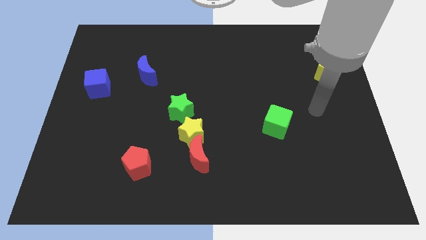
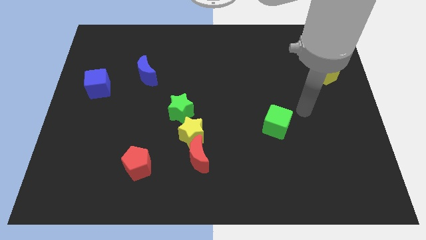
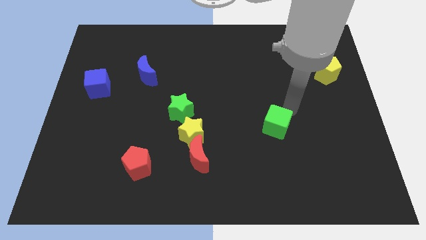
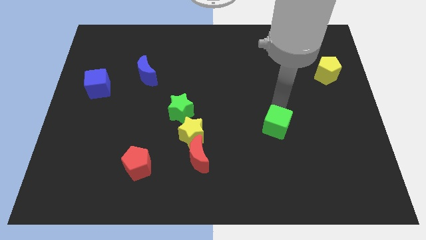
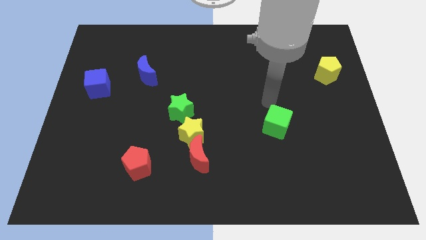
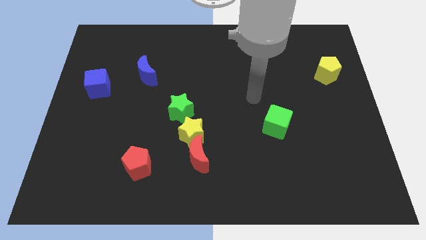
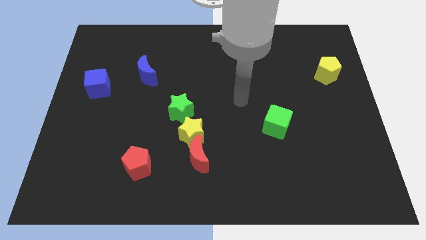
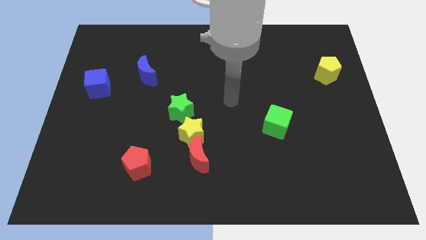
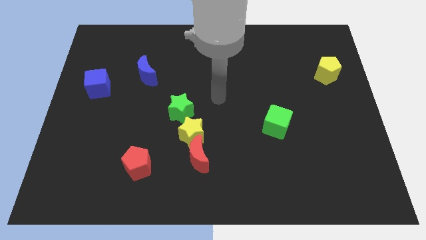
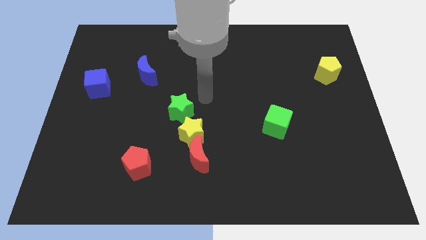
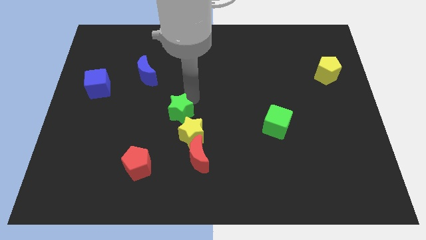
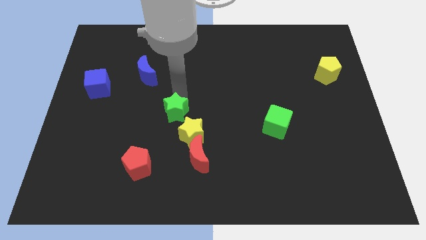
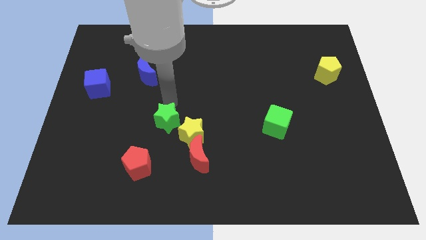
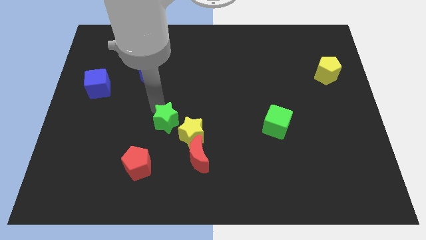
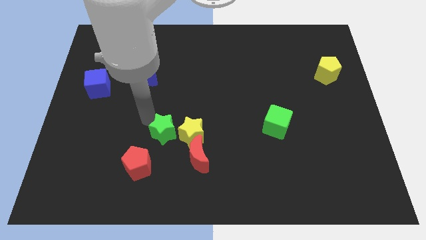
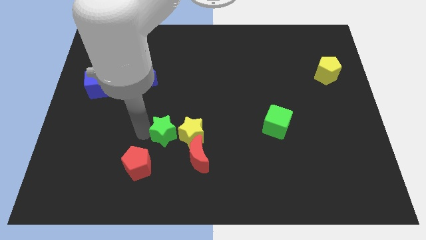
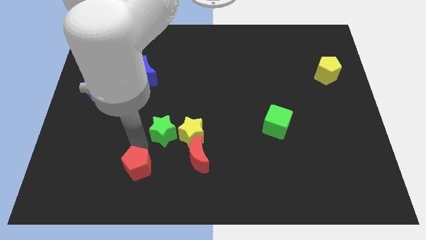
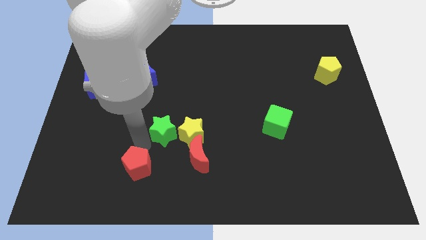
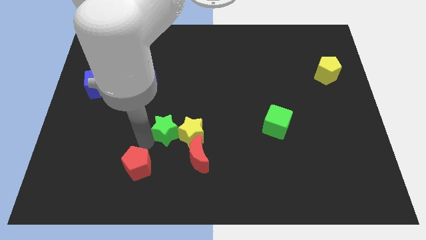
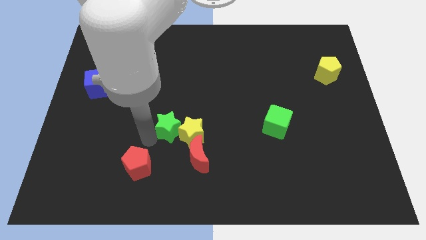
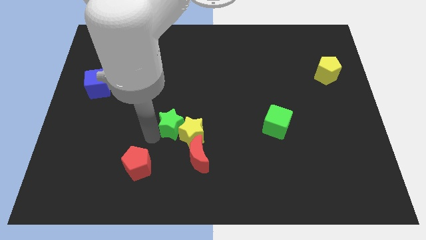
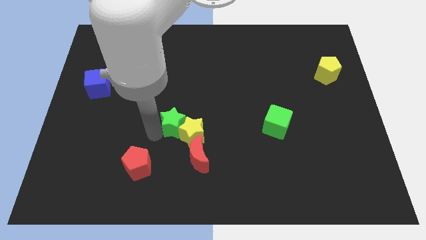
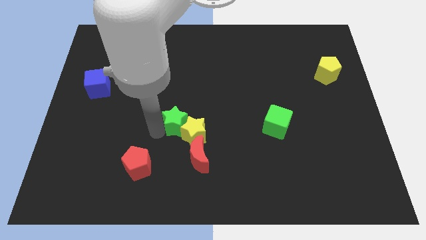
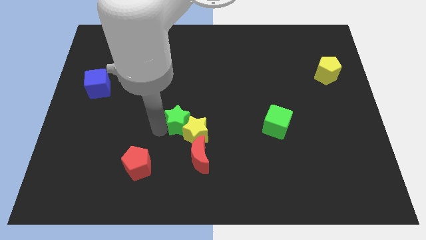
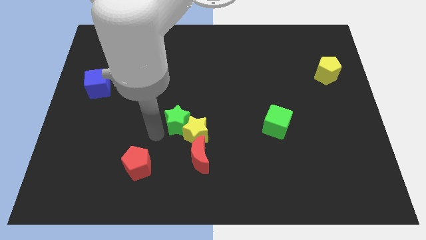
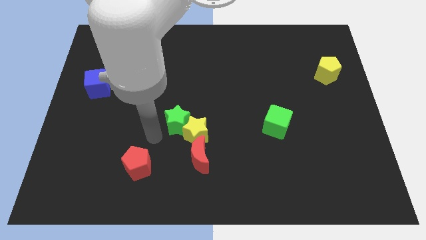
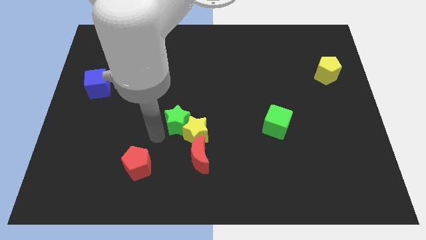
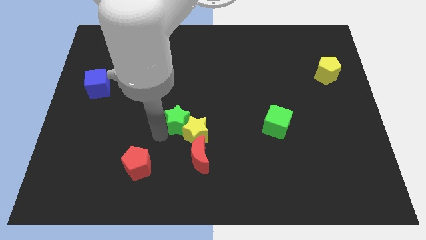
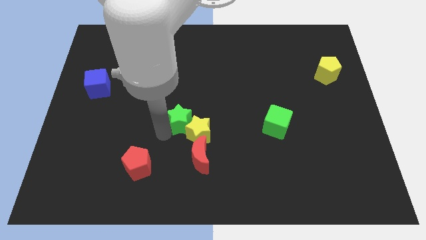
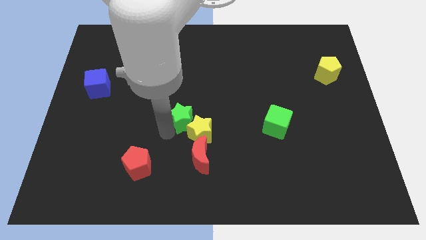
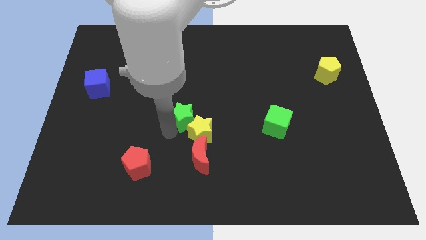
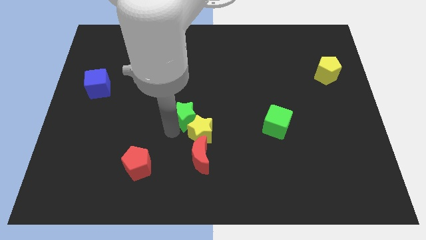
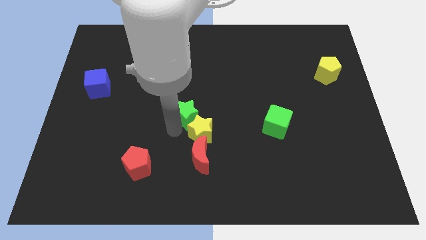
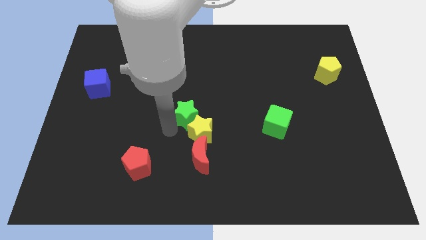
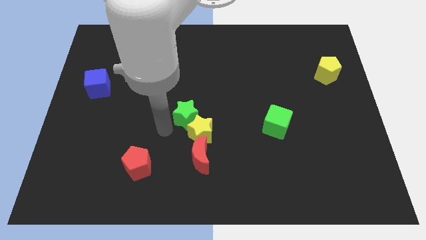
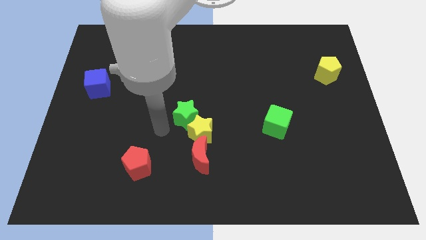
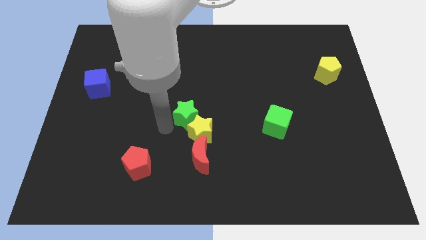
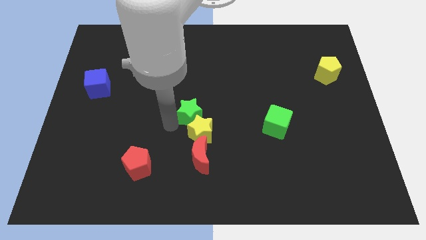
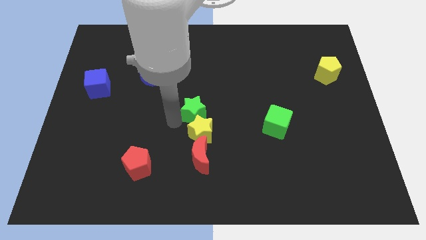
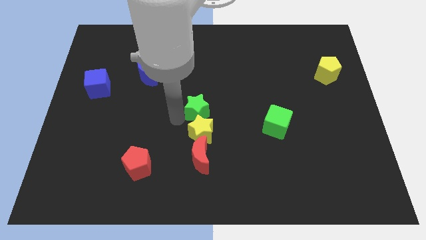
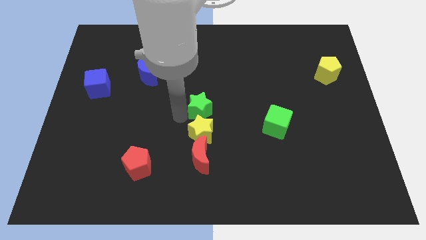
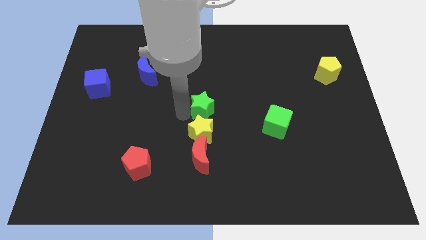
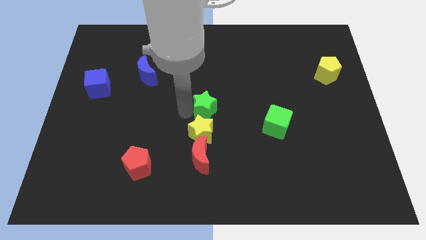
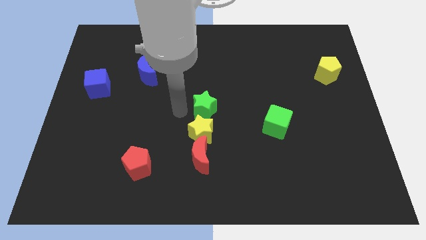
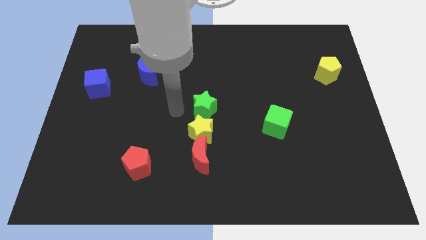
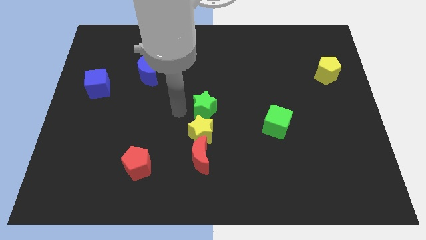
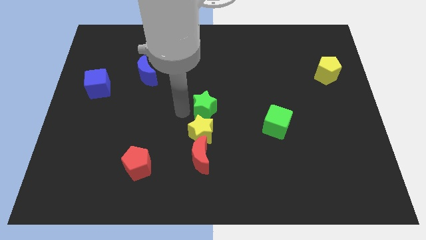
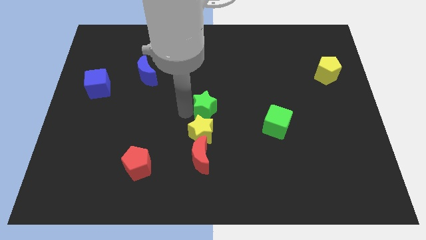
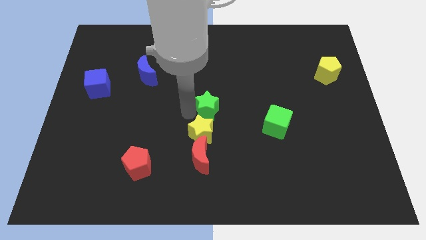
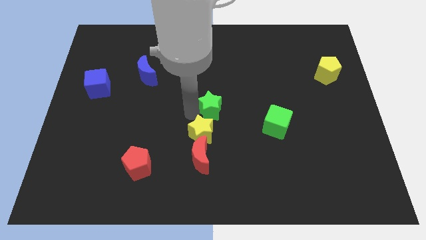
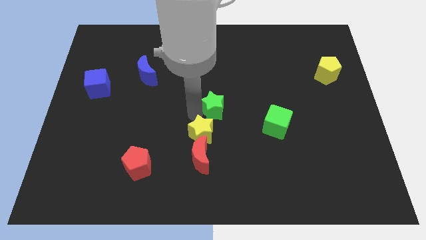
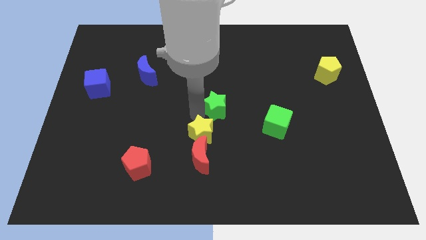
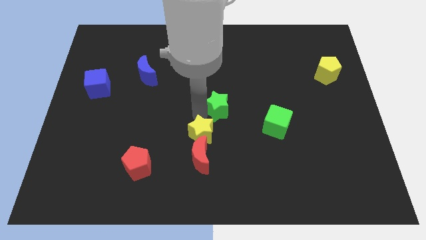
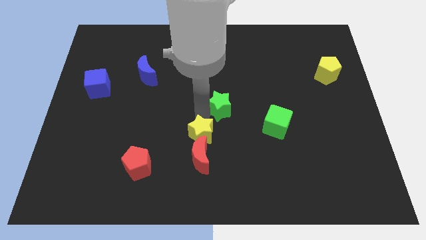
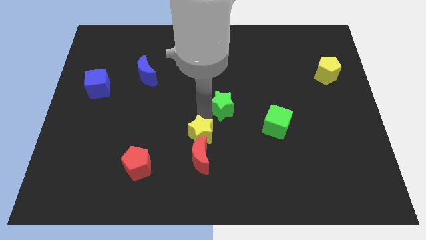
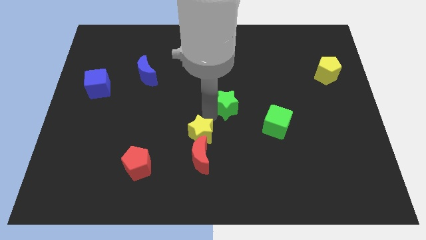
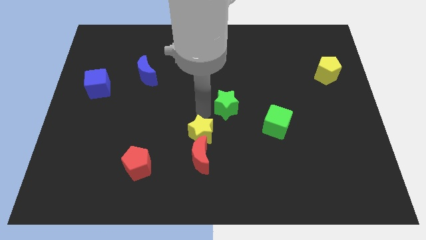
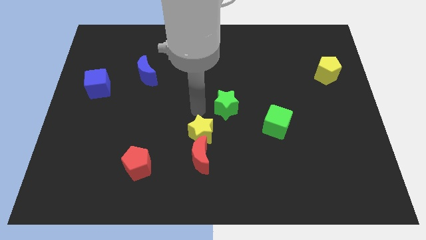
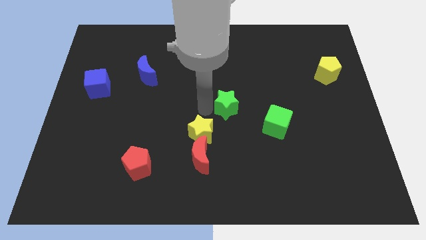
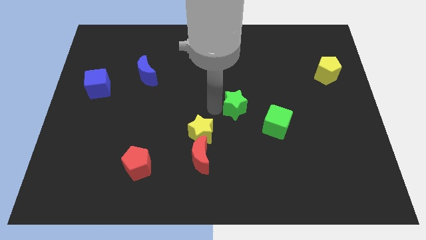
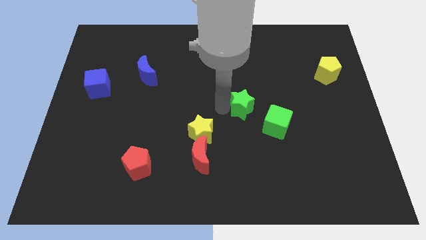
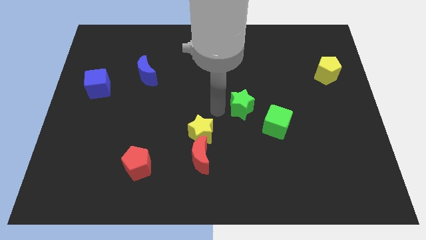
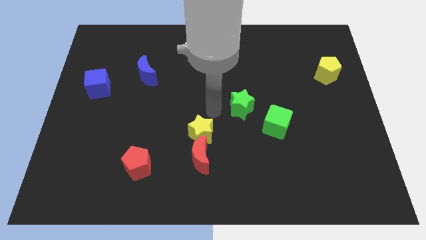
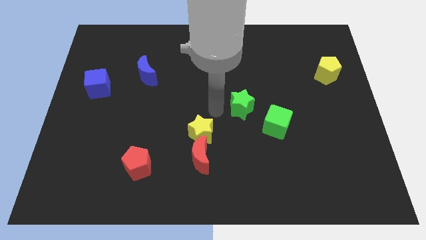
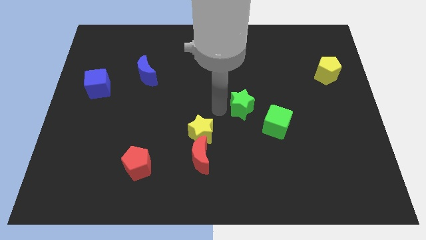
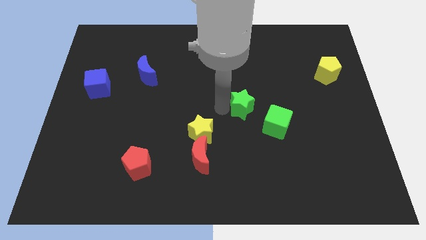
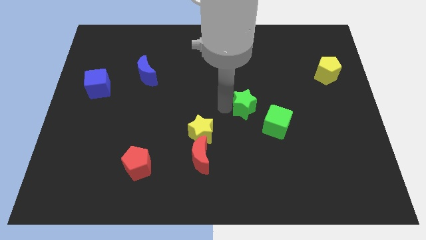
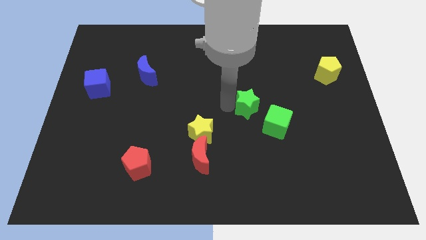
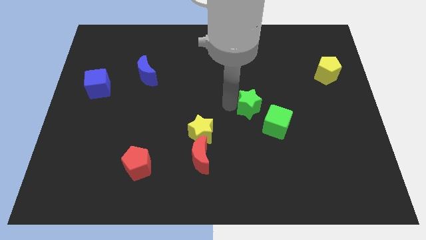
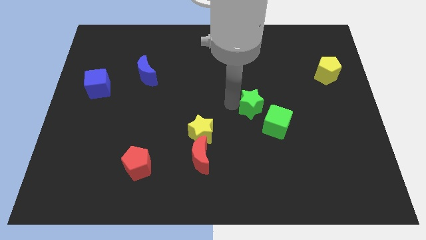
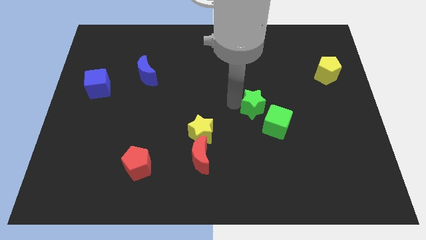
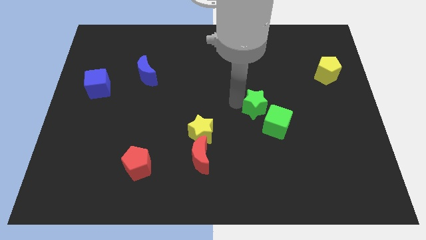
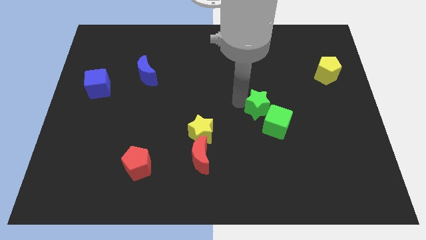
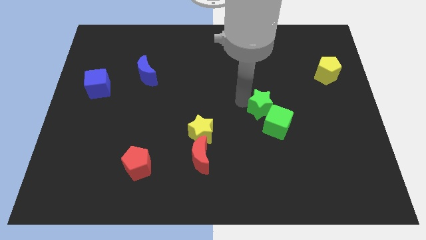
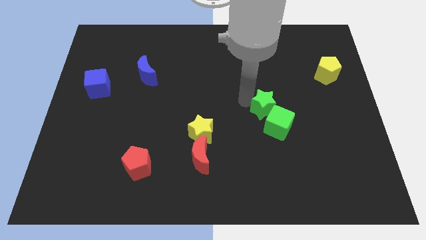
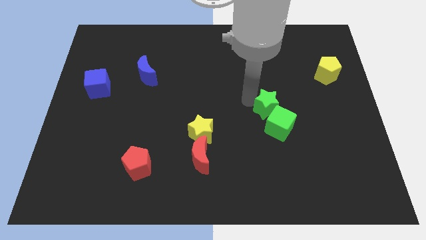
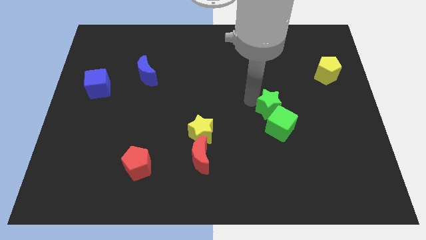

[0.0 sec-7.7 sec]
push the green star to the right
